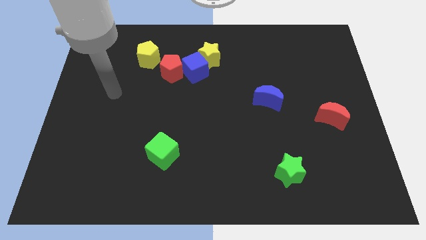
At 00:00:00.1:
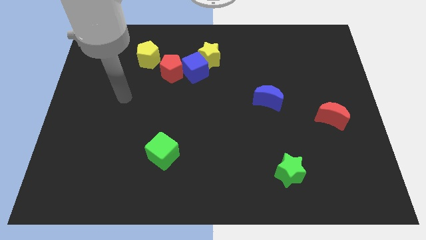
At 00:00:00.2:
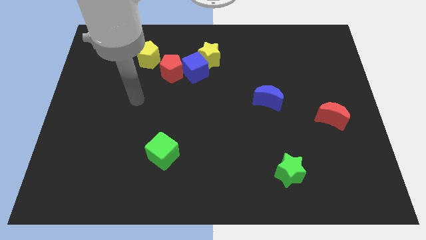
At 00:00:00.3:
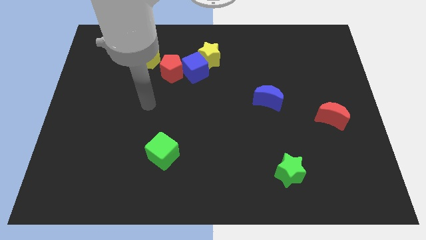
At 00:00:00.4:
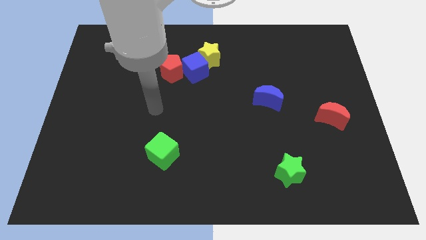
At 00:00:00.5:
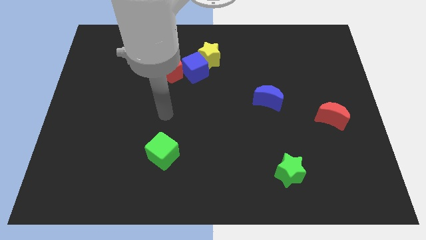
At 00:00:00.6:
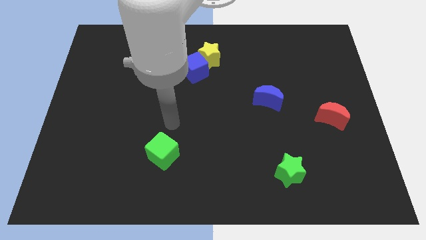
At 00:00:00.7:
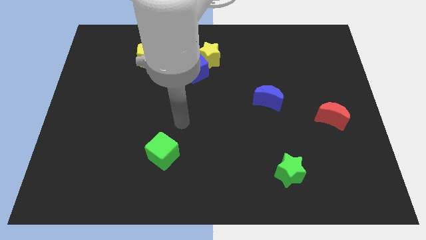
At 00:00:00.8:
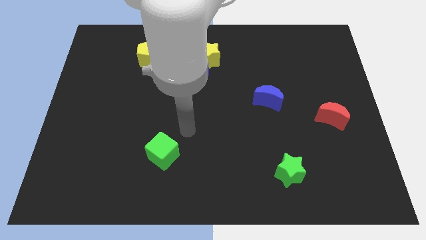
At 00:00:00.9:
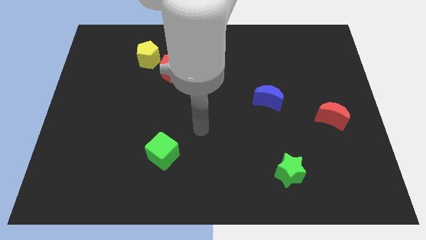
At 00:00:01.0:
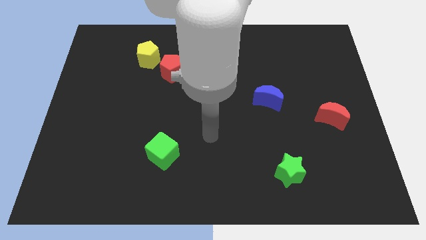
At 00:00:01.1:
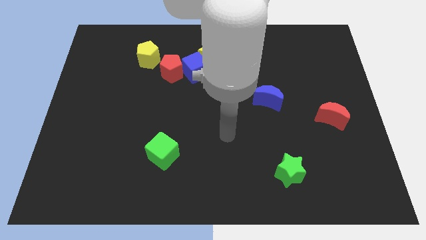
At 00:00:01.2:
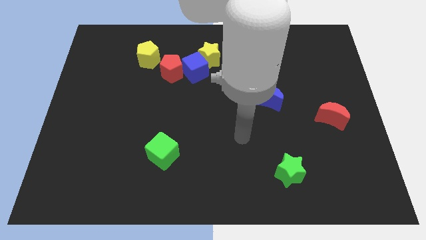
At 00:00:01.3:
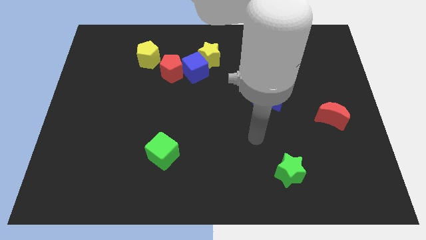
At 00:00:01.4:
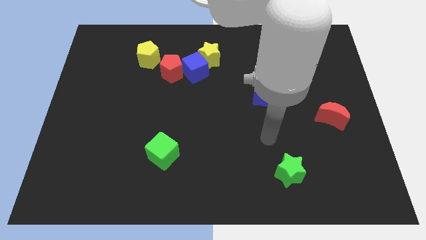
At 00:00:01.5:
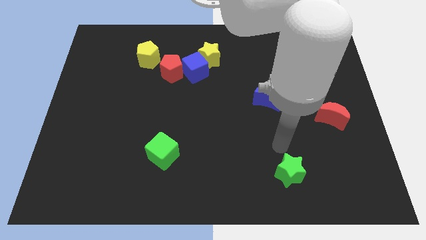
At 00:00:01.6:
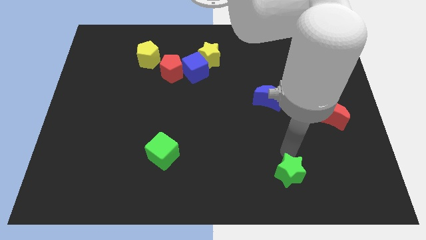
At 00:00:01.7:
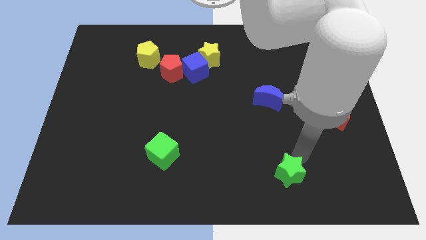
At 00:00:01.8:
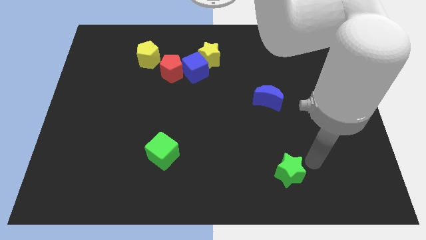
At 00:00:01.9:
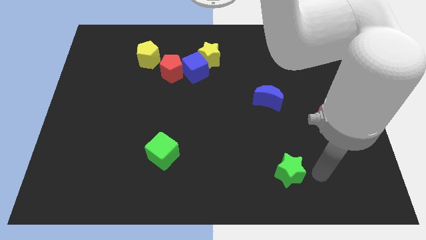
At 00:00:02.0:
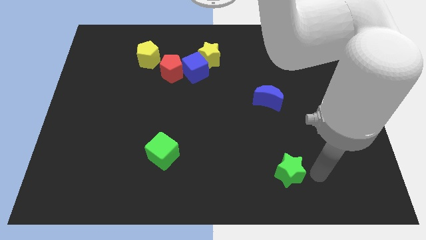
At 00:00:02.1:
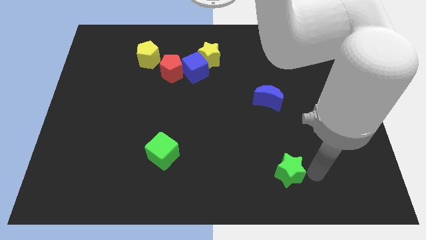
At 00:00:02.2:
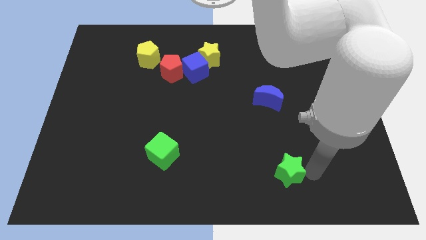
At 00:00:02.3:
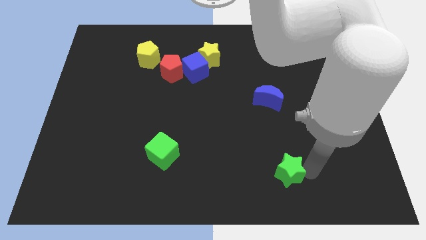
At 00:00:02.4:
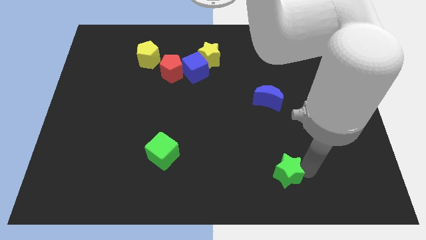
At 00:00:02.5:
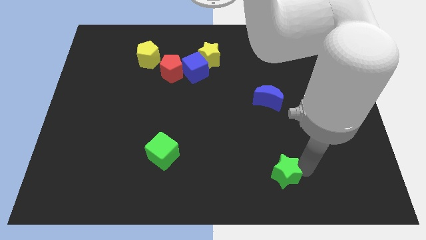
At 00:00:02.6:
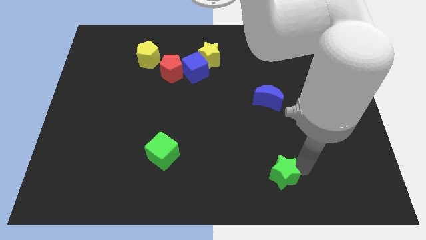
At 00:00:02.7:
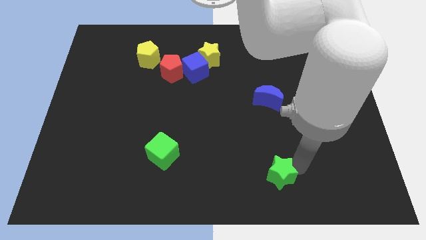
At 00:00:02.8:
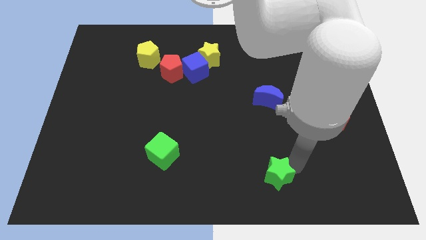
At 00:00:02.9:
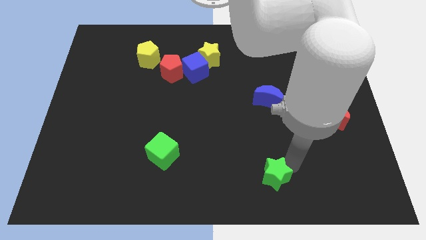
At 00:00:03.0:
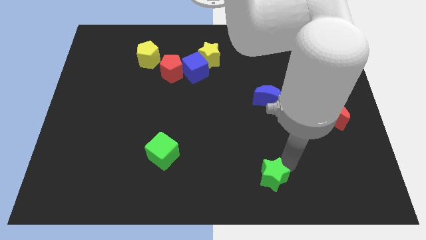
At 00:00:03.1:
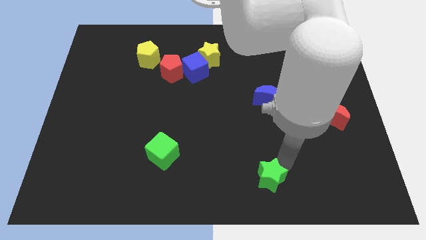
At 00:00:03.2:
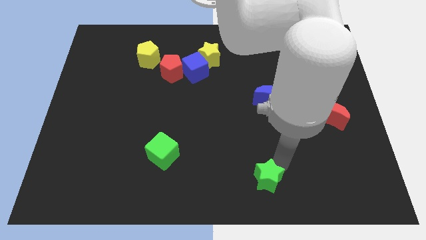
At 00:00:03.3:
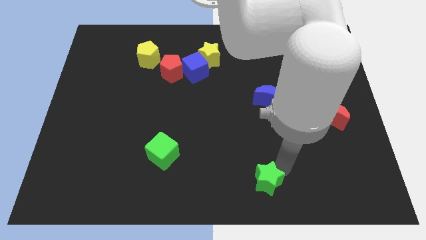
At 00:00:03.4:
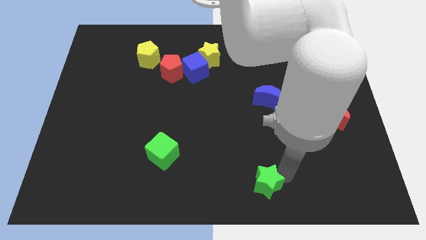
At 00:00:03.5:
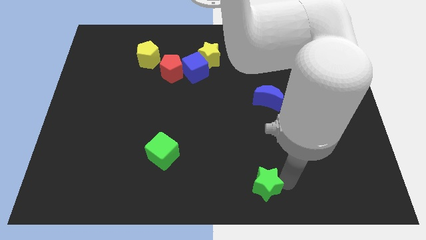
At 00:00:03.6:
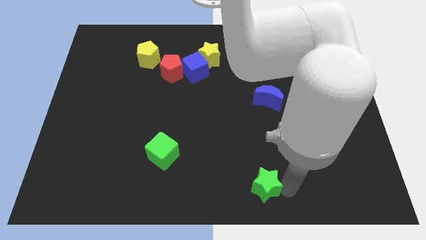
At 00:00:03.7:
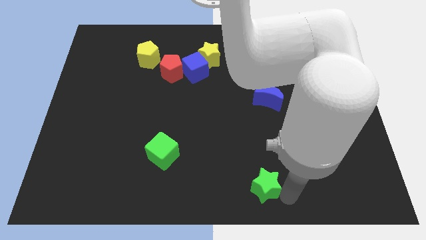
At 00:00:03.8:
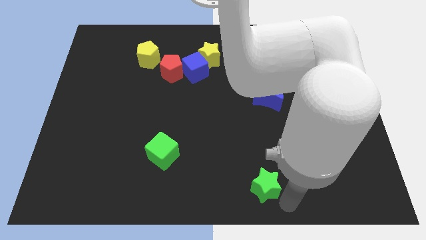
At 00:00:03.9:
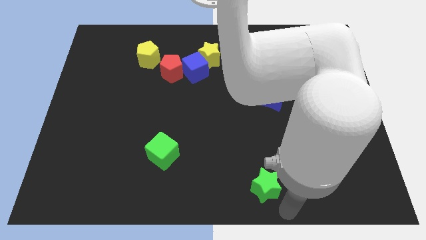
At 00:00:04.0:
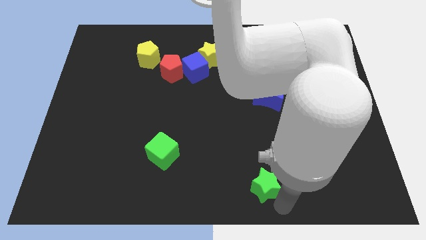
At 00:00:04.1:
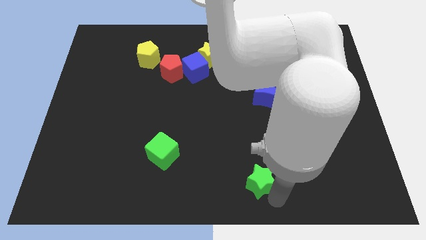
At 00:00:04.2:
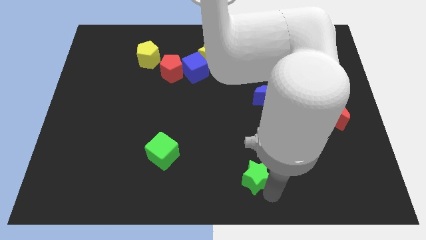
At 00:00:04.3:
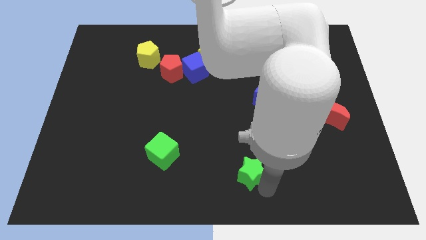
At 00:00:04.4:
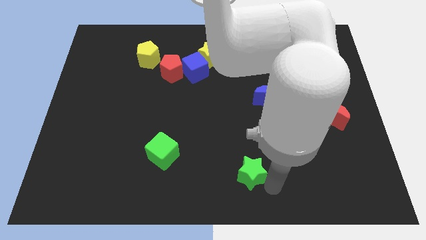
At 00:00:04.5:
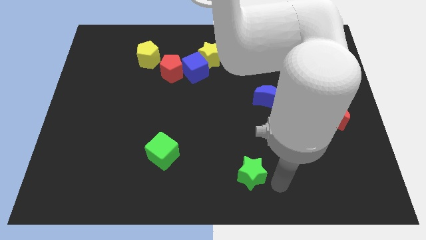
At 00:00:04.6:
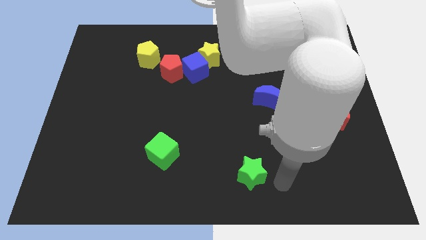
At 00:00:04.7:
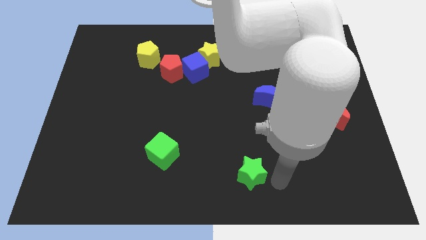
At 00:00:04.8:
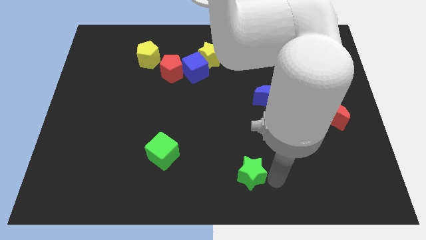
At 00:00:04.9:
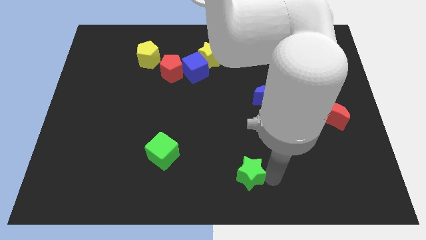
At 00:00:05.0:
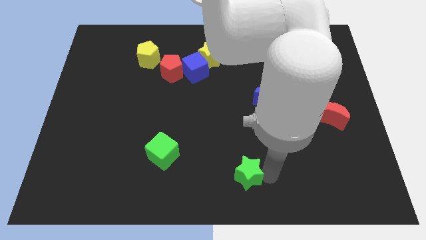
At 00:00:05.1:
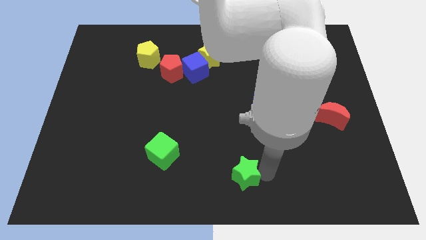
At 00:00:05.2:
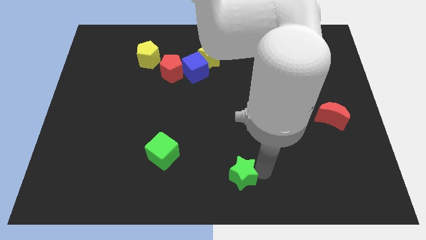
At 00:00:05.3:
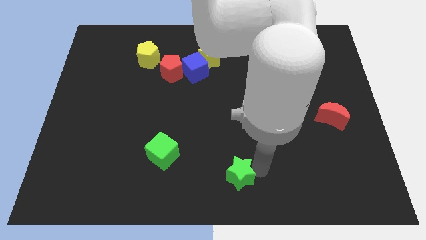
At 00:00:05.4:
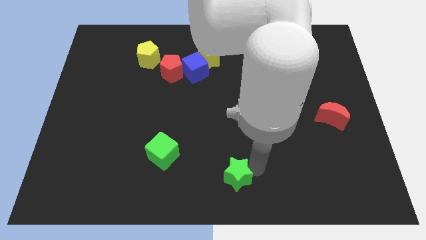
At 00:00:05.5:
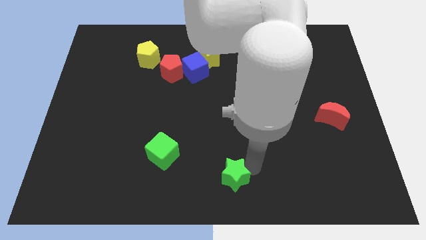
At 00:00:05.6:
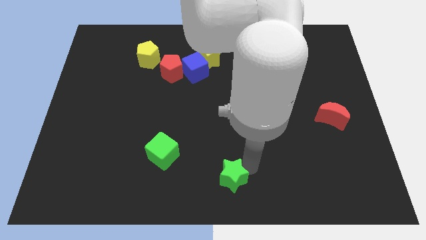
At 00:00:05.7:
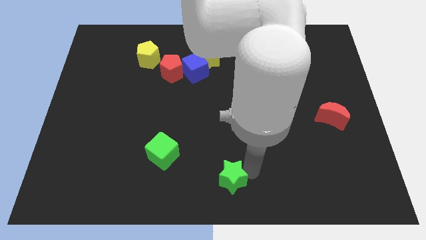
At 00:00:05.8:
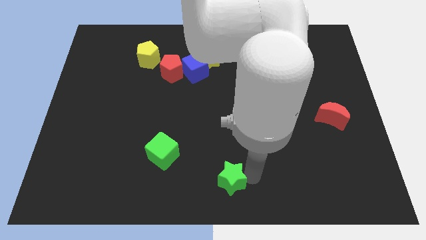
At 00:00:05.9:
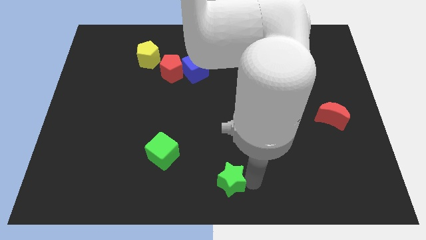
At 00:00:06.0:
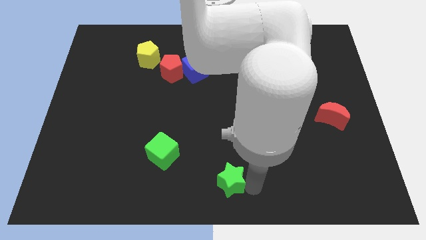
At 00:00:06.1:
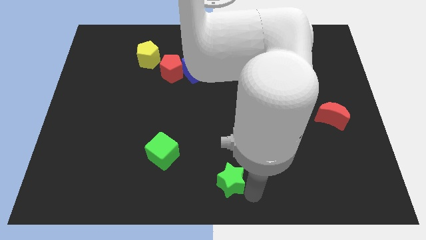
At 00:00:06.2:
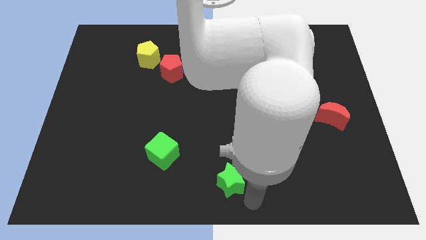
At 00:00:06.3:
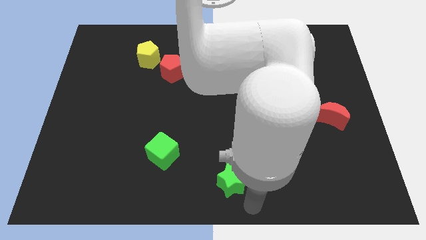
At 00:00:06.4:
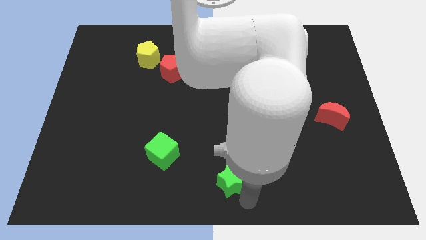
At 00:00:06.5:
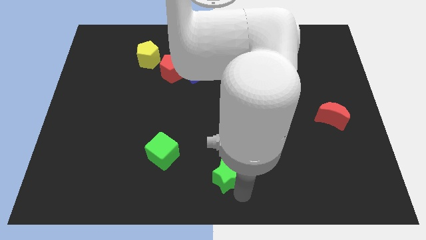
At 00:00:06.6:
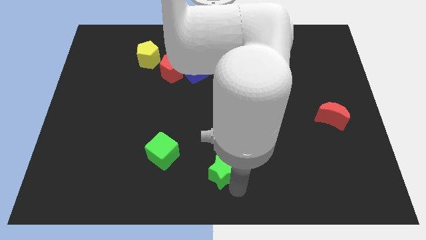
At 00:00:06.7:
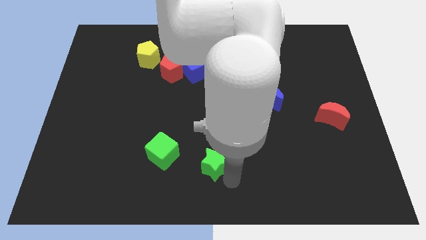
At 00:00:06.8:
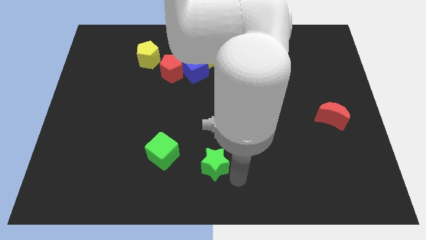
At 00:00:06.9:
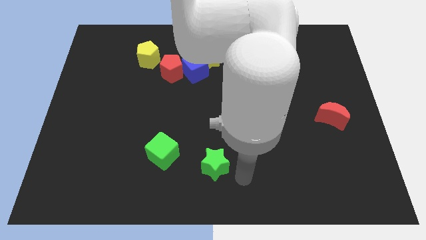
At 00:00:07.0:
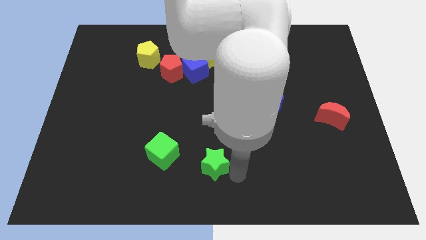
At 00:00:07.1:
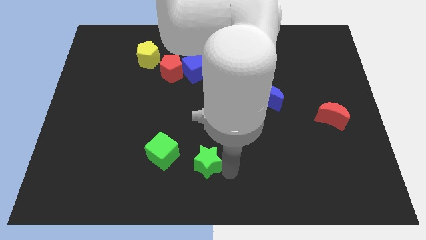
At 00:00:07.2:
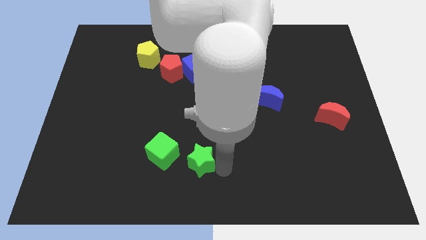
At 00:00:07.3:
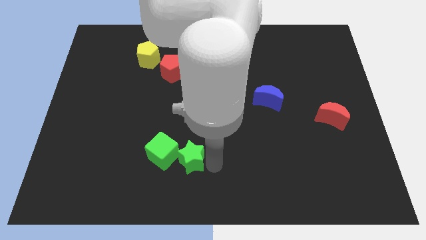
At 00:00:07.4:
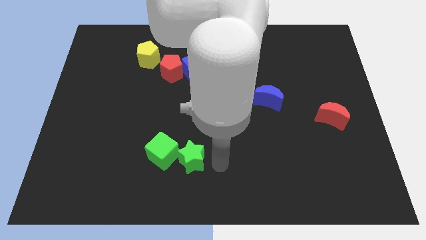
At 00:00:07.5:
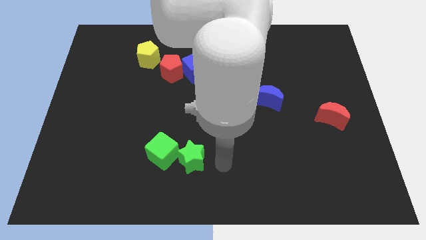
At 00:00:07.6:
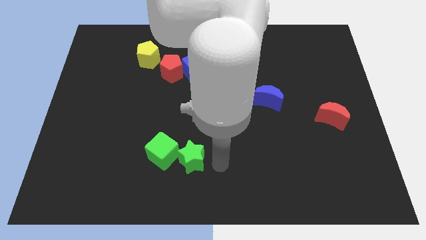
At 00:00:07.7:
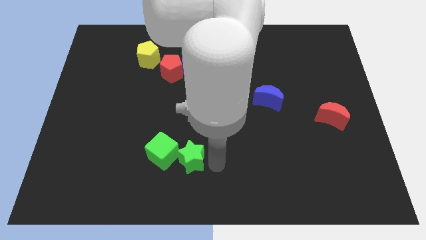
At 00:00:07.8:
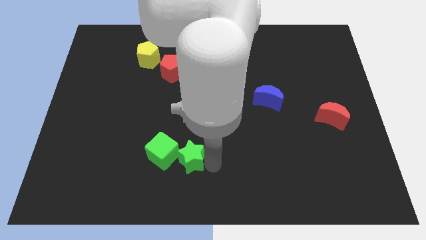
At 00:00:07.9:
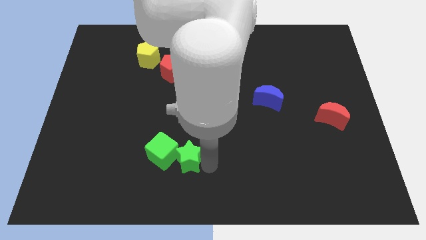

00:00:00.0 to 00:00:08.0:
move the green star towards the green cube
